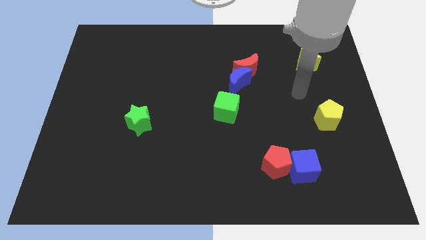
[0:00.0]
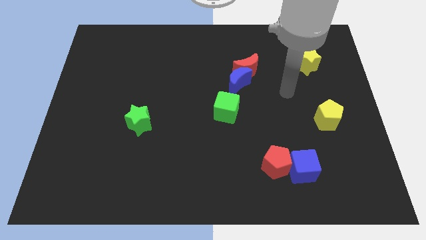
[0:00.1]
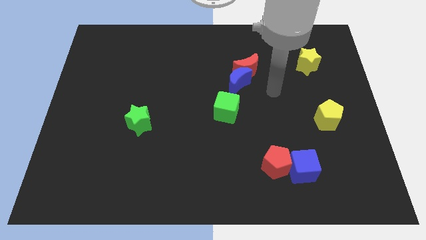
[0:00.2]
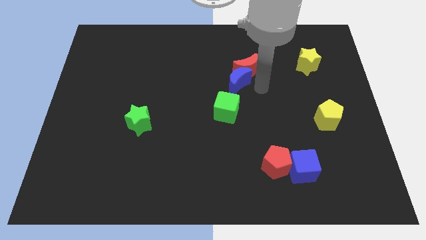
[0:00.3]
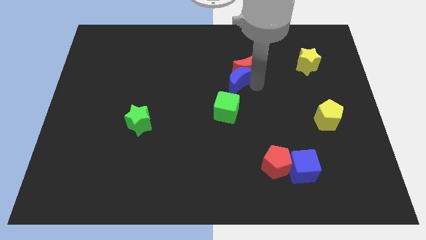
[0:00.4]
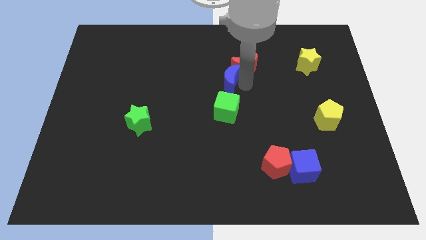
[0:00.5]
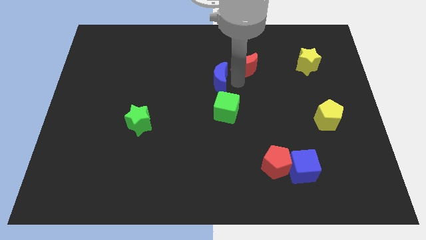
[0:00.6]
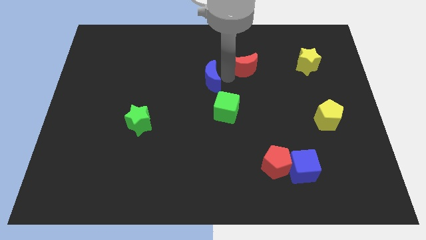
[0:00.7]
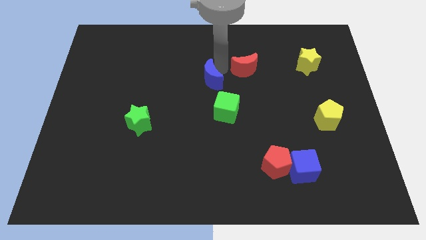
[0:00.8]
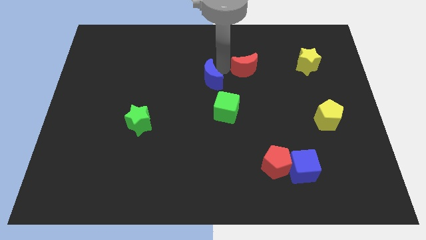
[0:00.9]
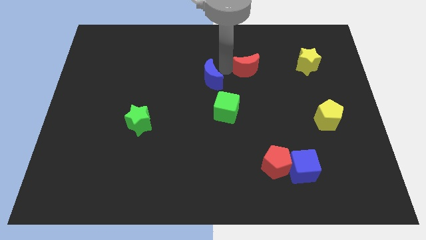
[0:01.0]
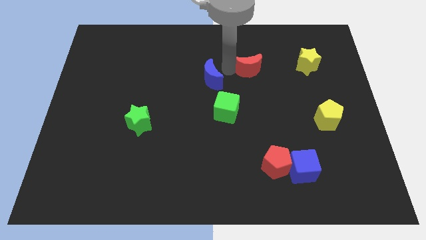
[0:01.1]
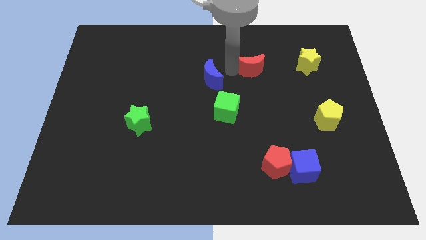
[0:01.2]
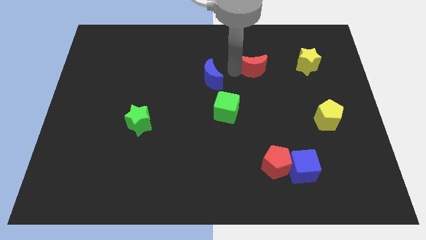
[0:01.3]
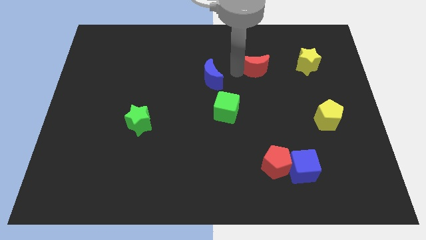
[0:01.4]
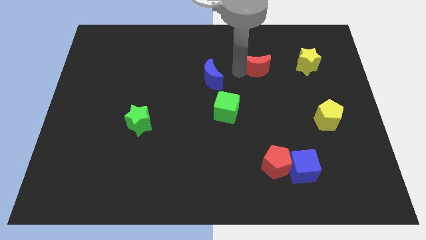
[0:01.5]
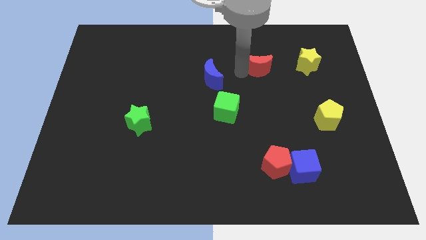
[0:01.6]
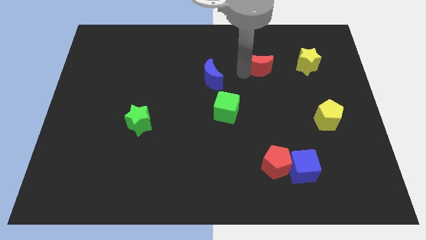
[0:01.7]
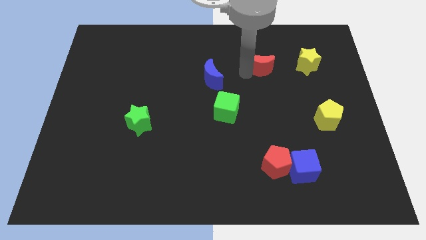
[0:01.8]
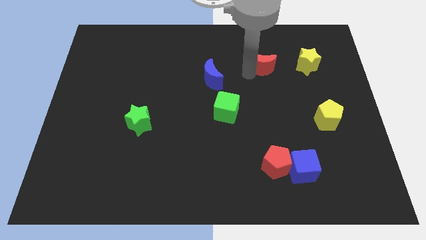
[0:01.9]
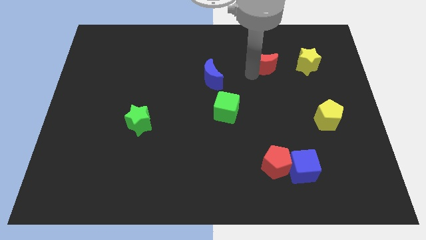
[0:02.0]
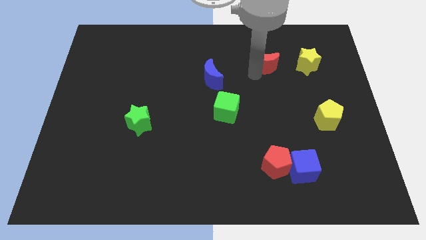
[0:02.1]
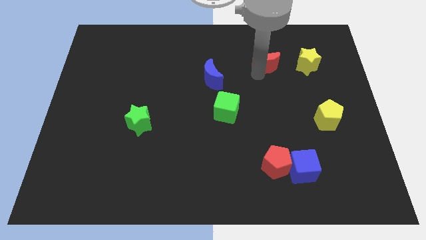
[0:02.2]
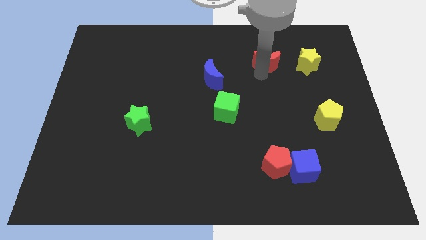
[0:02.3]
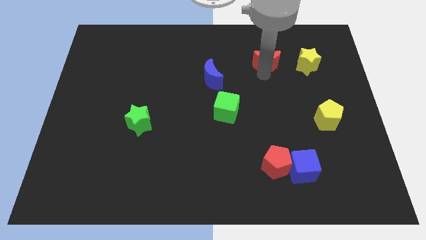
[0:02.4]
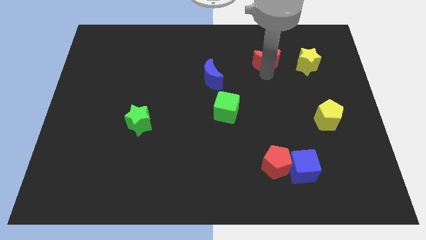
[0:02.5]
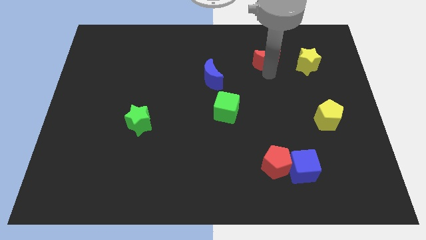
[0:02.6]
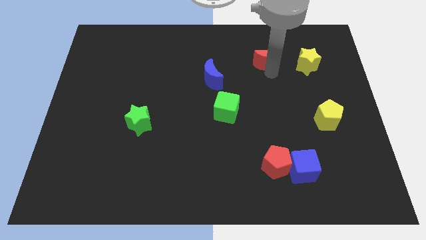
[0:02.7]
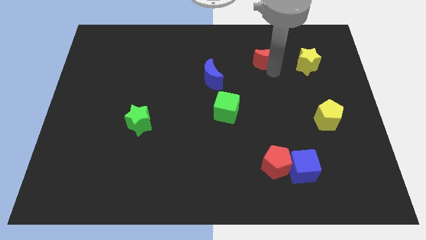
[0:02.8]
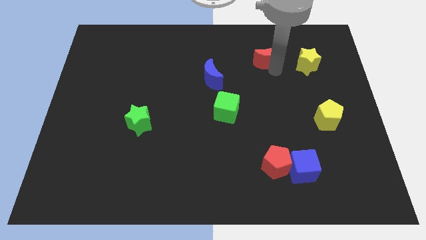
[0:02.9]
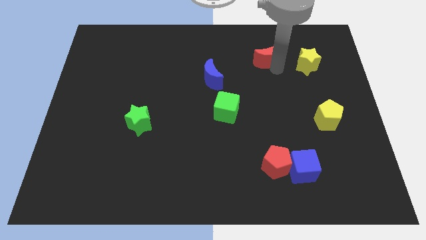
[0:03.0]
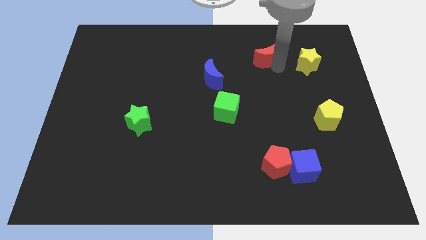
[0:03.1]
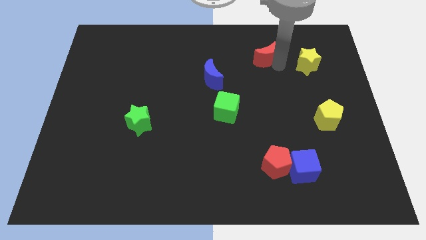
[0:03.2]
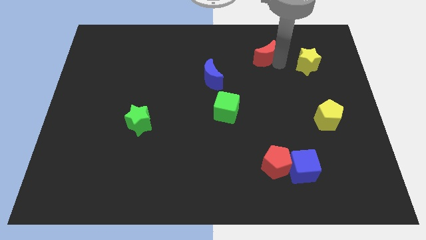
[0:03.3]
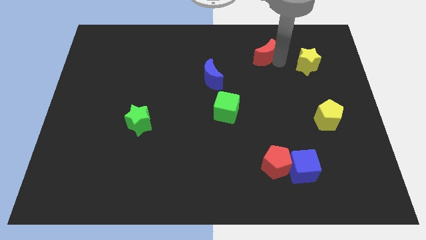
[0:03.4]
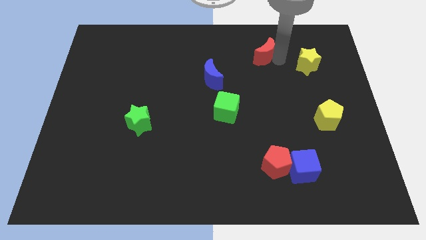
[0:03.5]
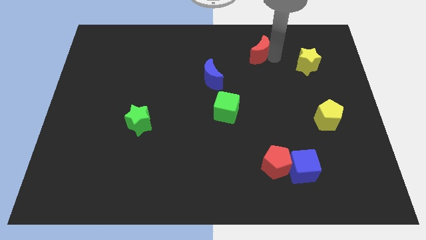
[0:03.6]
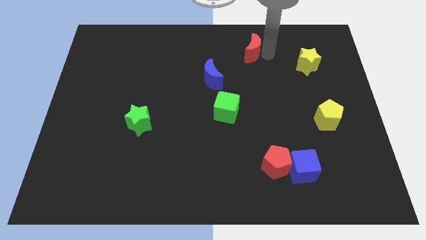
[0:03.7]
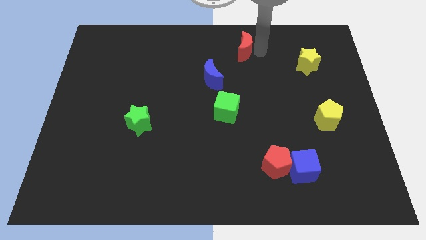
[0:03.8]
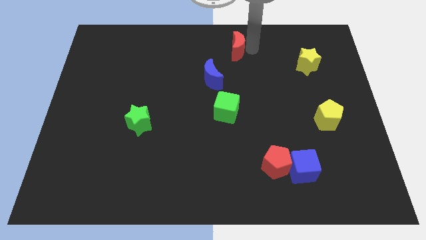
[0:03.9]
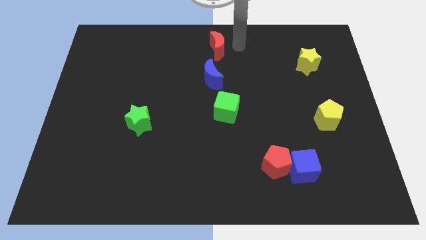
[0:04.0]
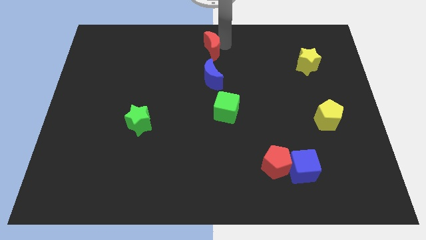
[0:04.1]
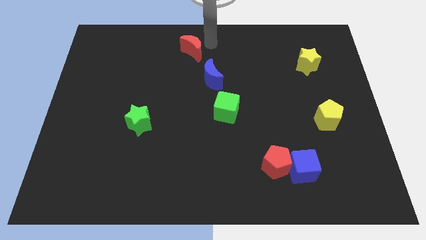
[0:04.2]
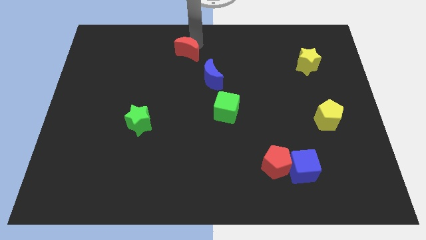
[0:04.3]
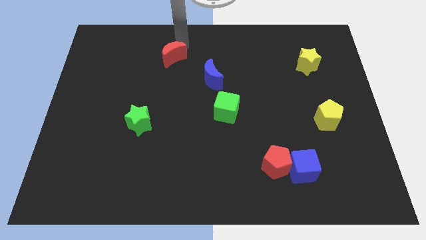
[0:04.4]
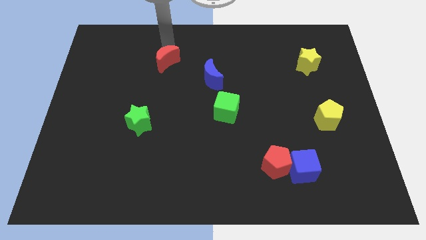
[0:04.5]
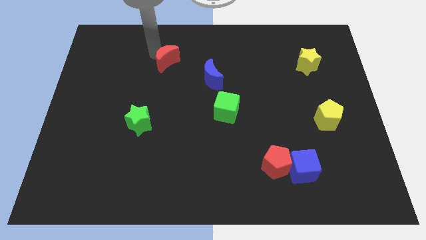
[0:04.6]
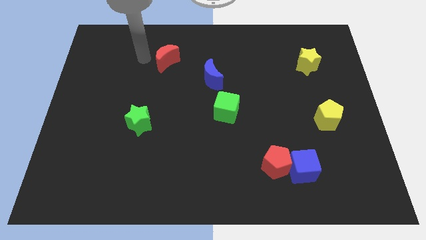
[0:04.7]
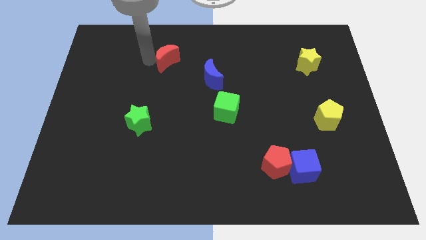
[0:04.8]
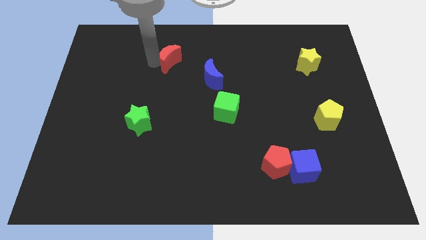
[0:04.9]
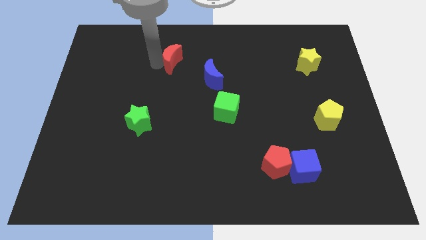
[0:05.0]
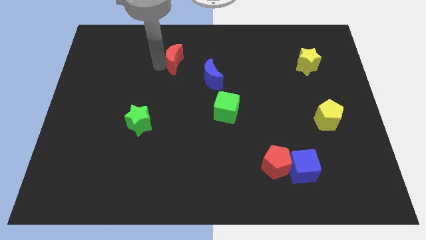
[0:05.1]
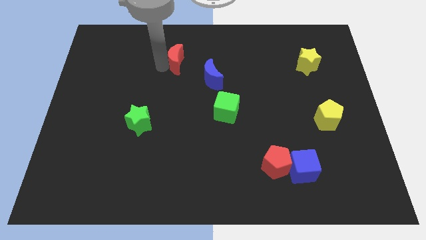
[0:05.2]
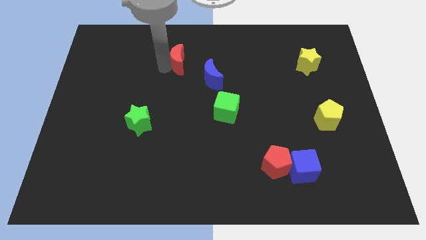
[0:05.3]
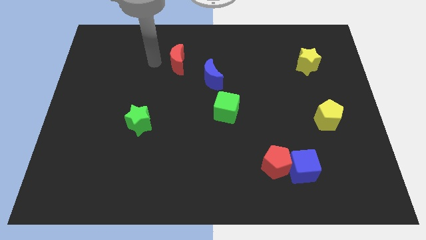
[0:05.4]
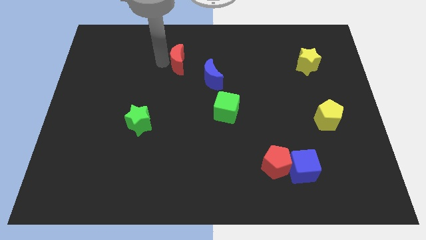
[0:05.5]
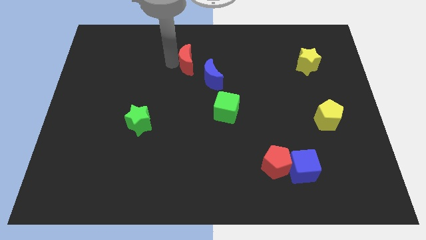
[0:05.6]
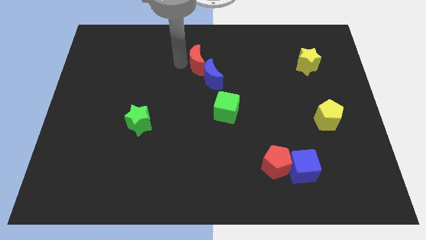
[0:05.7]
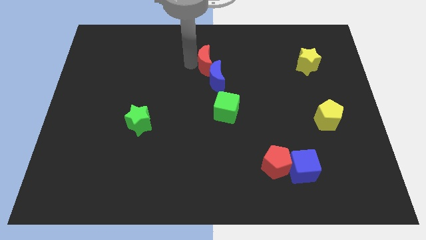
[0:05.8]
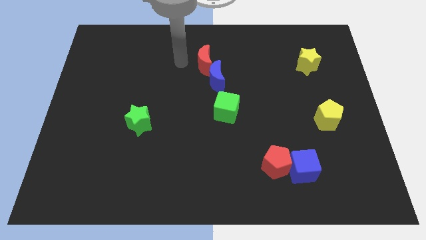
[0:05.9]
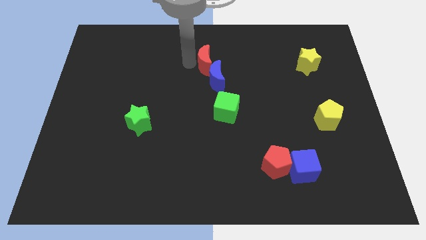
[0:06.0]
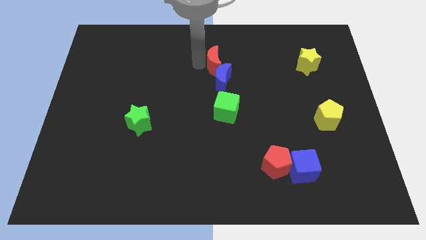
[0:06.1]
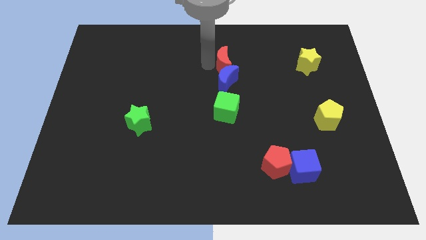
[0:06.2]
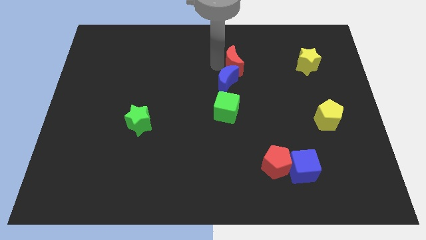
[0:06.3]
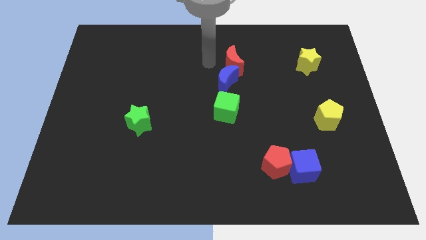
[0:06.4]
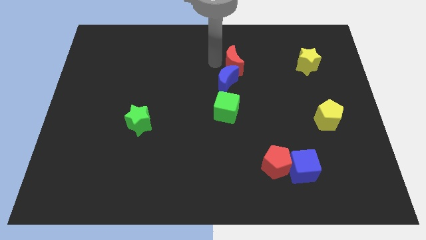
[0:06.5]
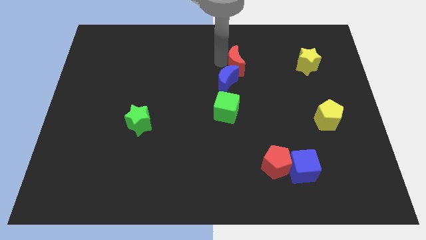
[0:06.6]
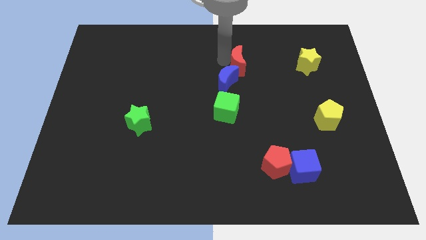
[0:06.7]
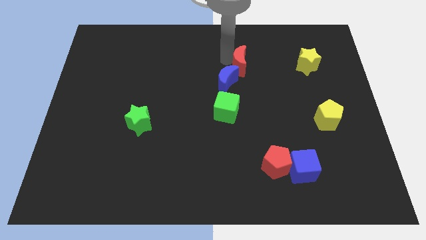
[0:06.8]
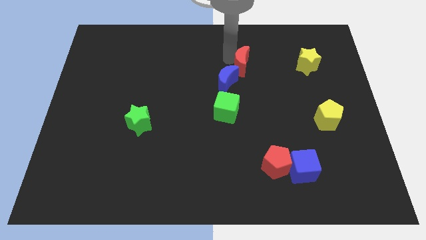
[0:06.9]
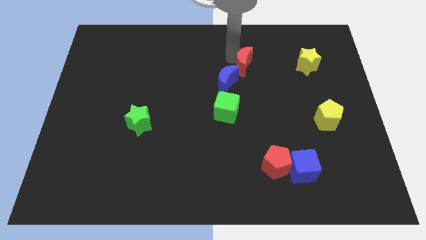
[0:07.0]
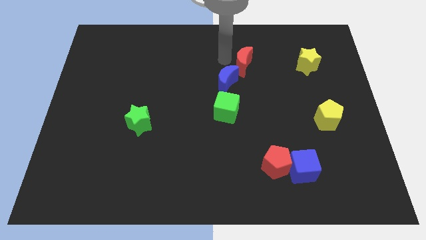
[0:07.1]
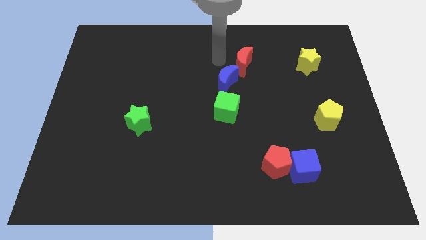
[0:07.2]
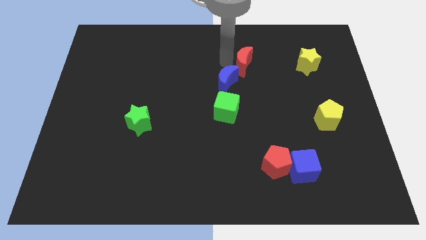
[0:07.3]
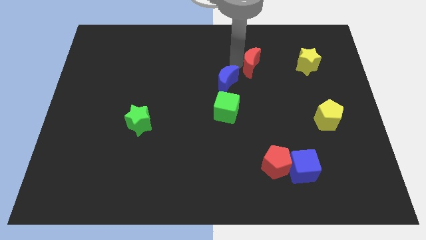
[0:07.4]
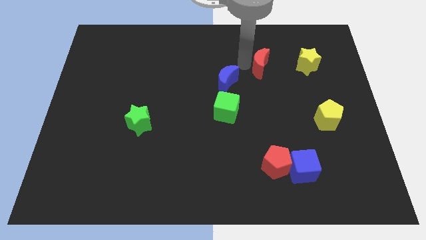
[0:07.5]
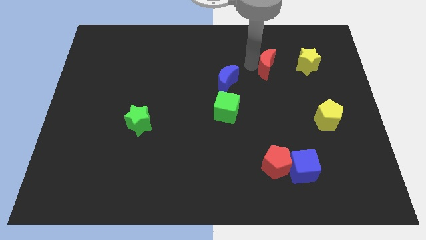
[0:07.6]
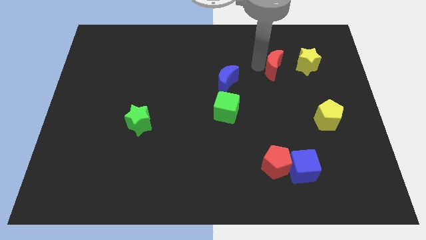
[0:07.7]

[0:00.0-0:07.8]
slightly push the red moon to the right

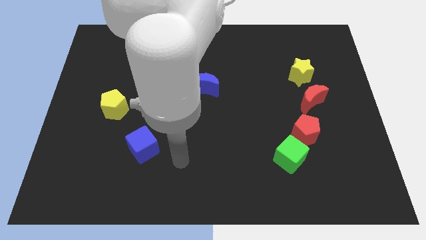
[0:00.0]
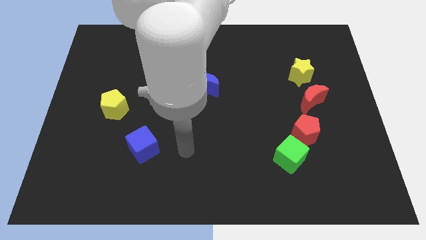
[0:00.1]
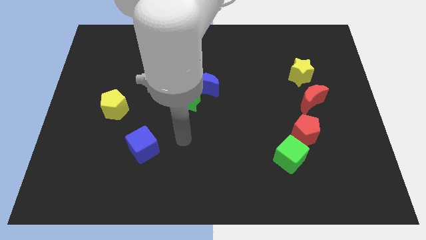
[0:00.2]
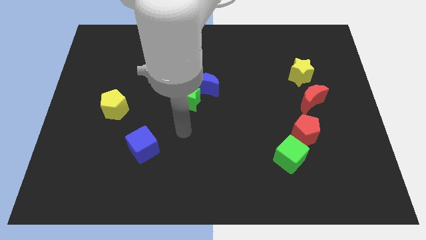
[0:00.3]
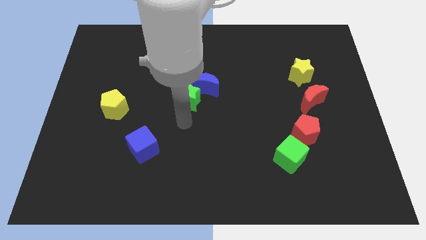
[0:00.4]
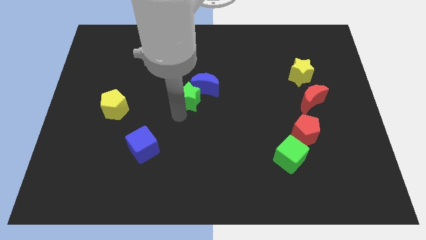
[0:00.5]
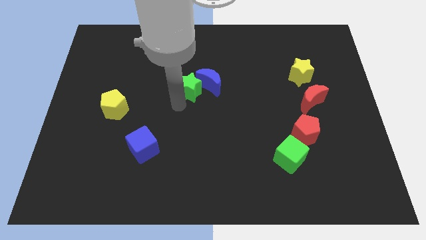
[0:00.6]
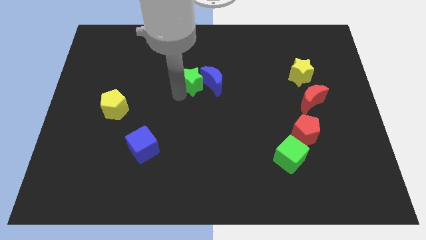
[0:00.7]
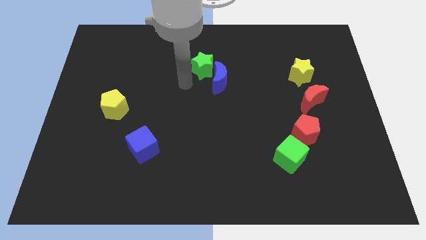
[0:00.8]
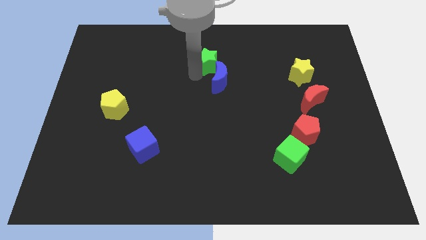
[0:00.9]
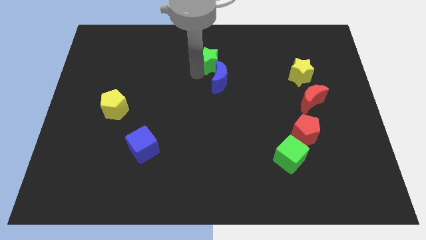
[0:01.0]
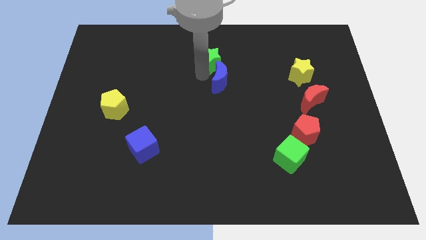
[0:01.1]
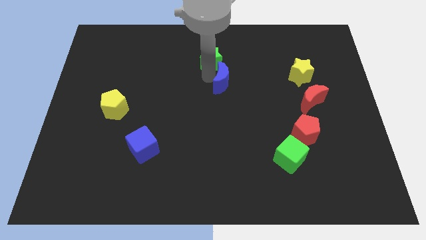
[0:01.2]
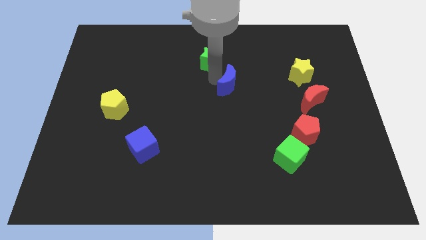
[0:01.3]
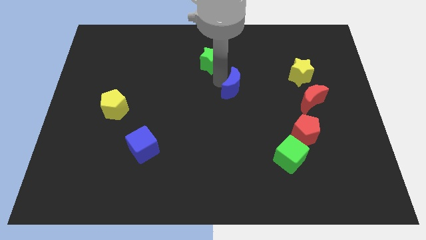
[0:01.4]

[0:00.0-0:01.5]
push the blue moon to the right a little
